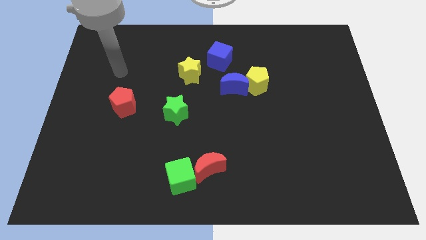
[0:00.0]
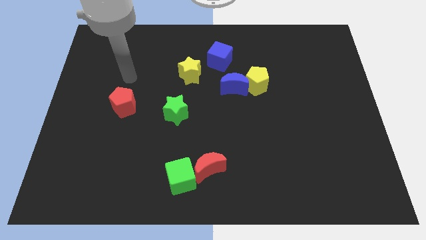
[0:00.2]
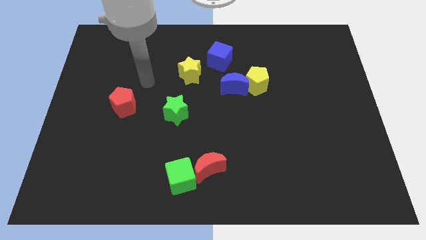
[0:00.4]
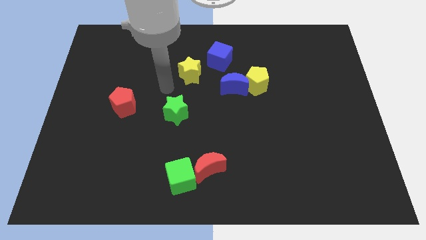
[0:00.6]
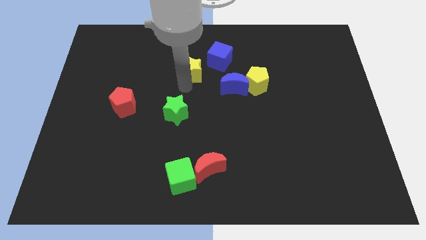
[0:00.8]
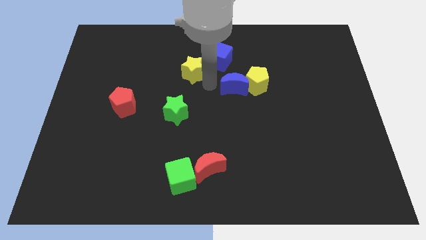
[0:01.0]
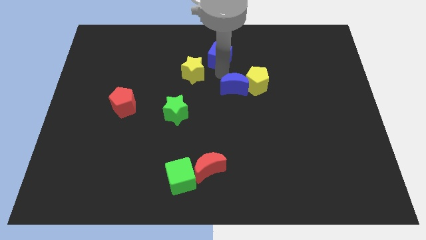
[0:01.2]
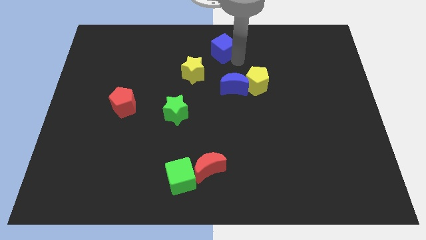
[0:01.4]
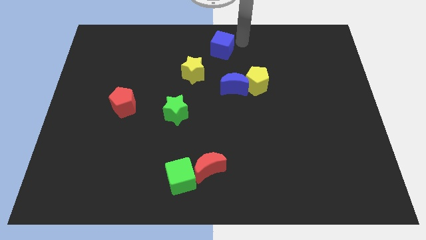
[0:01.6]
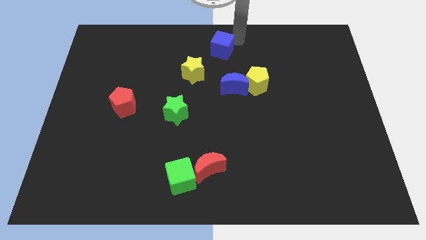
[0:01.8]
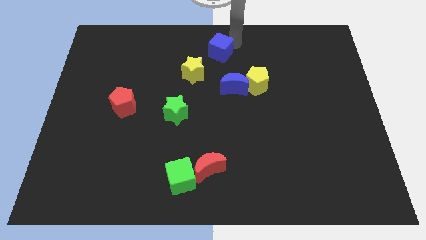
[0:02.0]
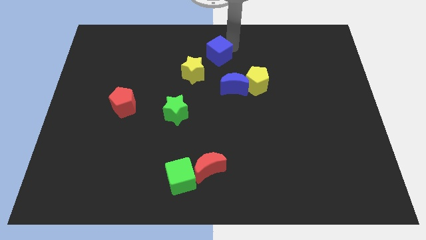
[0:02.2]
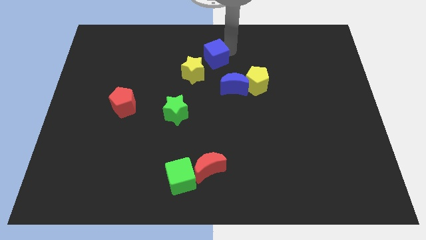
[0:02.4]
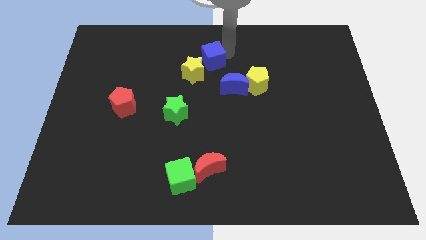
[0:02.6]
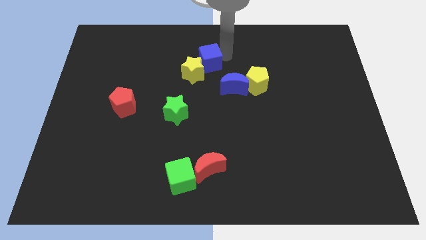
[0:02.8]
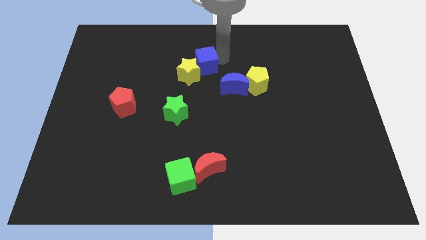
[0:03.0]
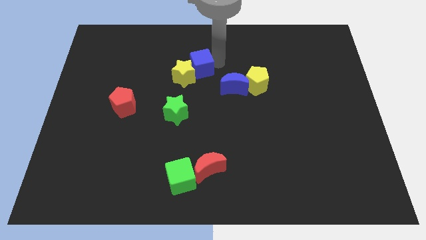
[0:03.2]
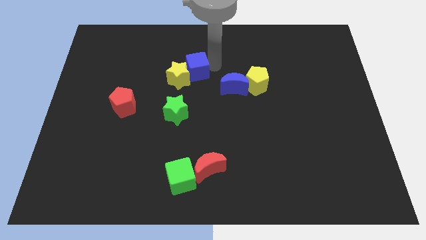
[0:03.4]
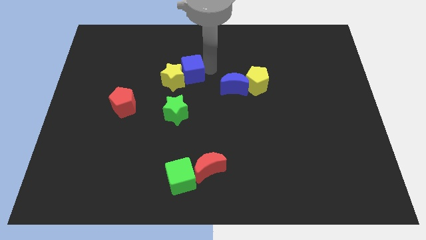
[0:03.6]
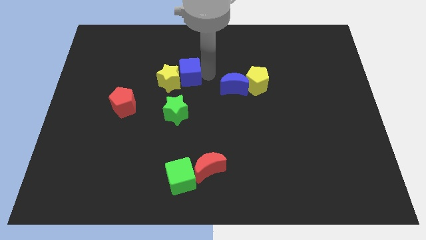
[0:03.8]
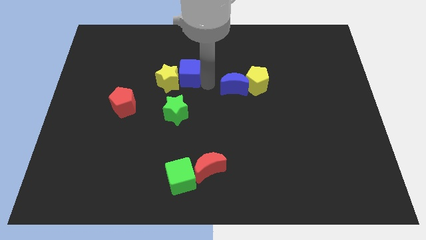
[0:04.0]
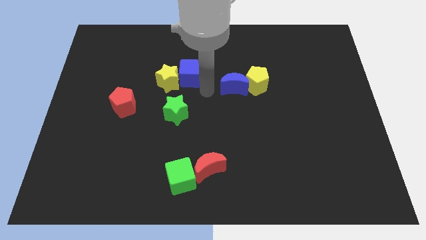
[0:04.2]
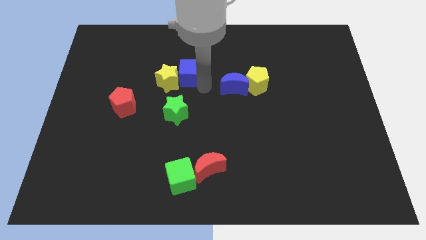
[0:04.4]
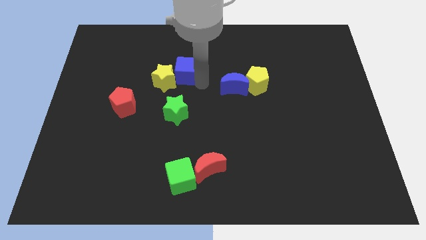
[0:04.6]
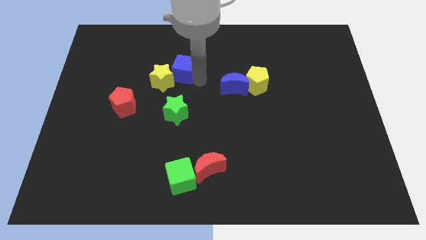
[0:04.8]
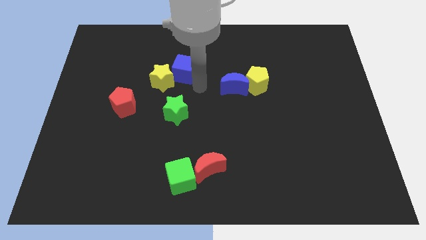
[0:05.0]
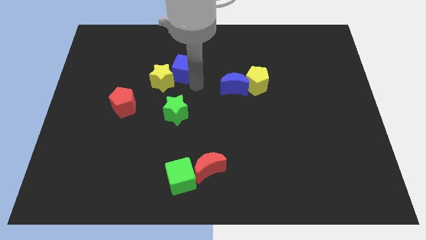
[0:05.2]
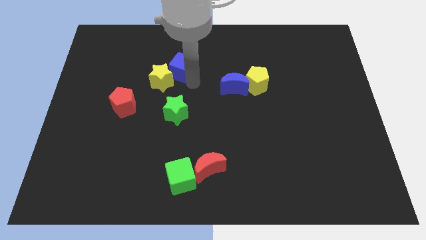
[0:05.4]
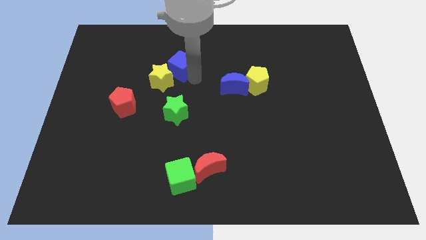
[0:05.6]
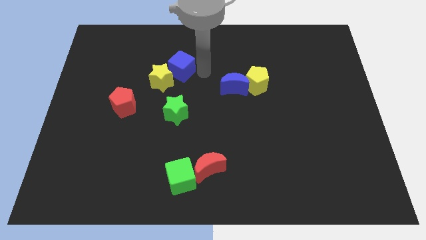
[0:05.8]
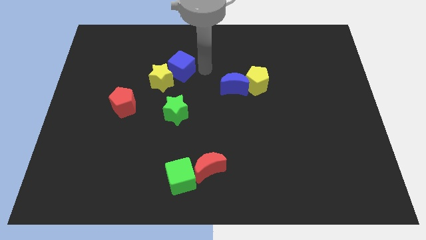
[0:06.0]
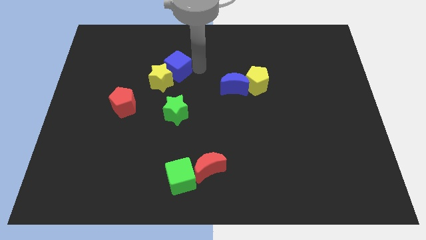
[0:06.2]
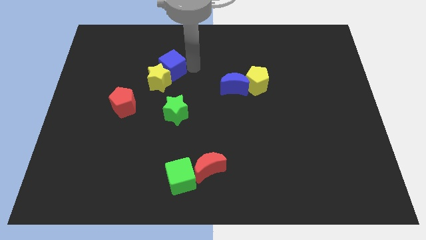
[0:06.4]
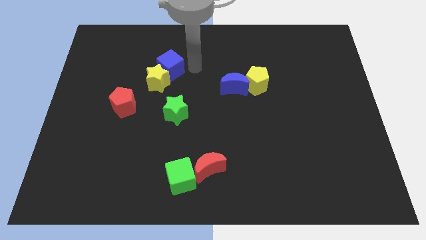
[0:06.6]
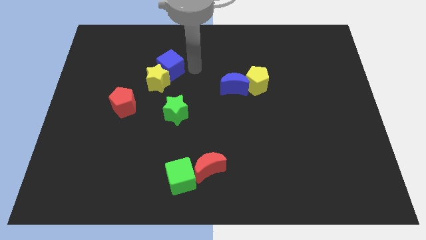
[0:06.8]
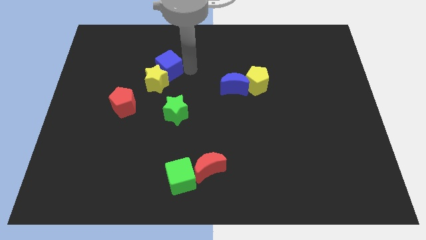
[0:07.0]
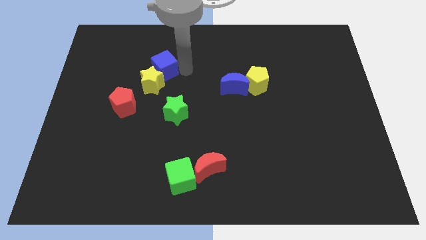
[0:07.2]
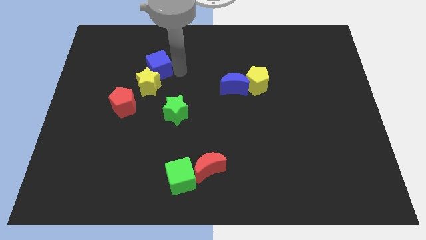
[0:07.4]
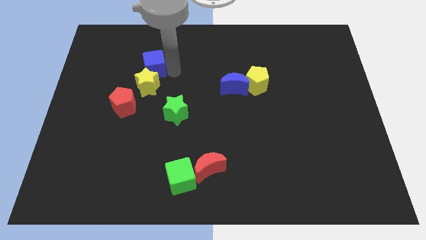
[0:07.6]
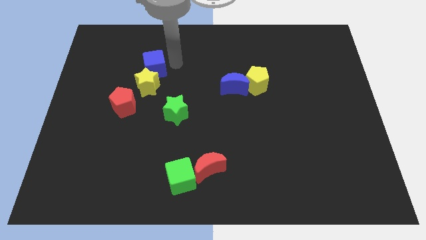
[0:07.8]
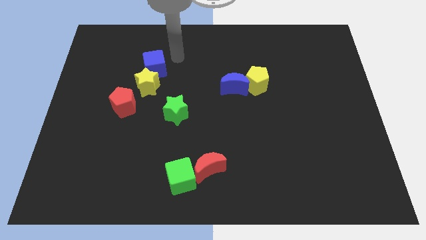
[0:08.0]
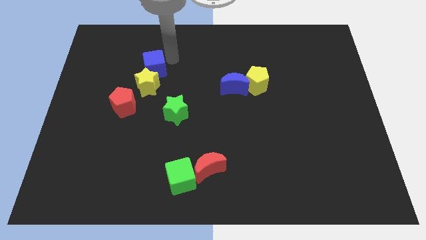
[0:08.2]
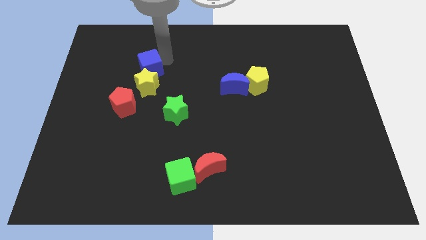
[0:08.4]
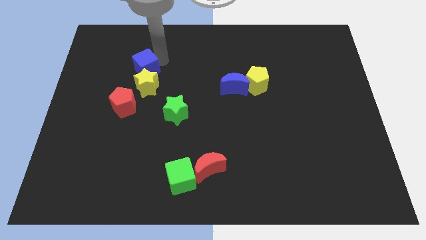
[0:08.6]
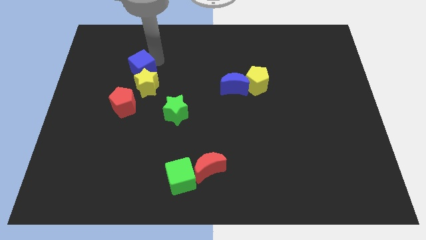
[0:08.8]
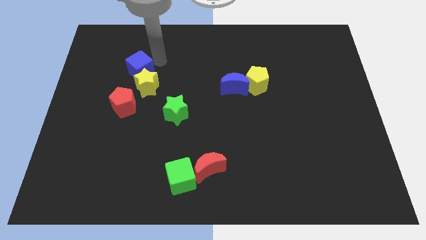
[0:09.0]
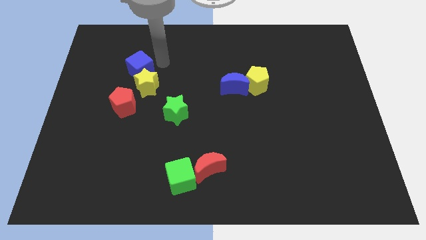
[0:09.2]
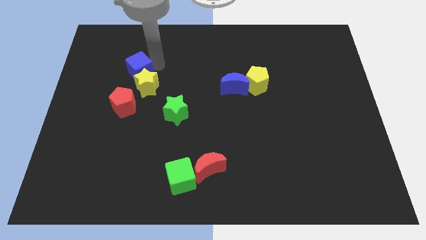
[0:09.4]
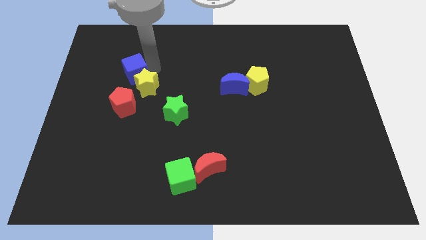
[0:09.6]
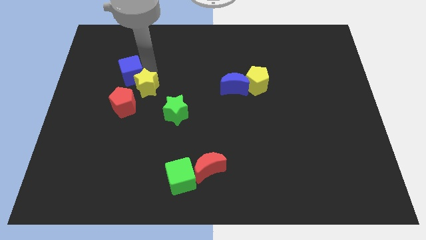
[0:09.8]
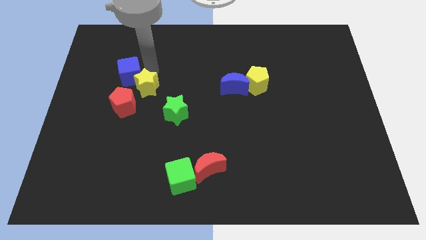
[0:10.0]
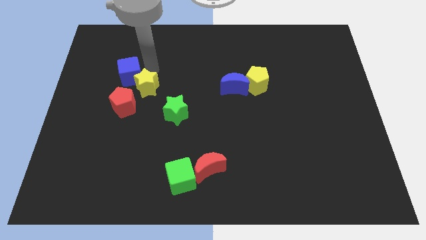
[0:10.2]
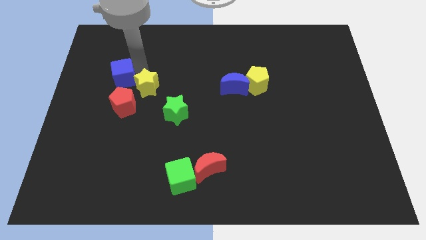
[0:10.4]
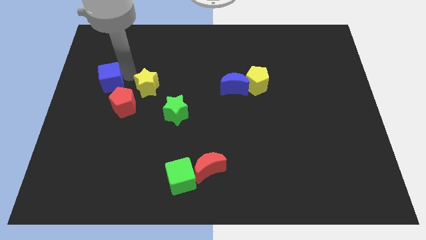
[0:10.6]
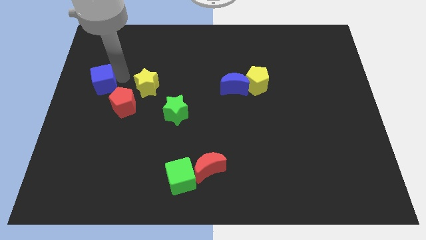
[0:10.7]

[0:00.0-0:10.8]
put the blue cube to the center left

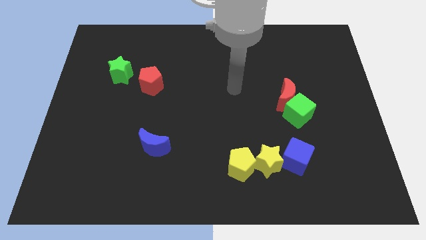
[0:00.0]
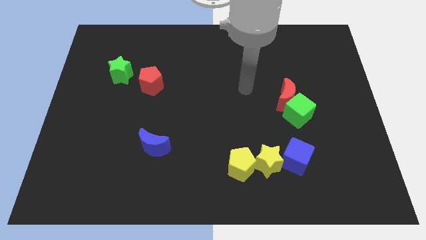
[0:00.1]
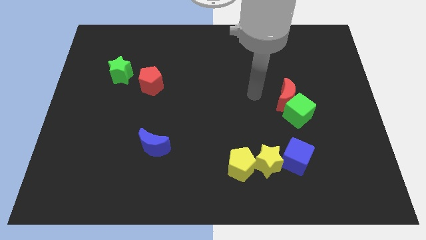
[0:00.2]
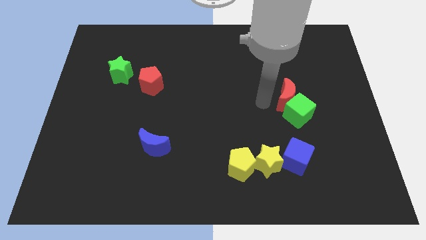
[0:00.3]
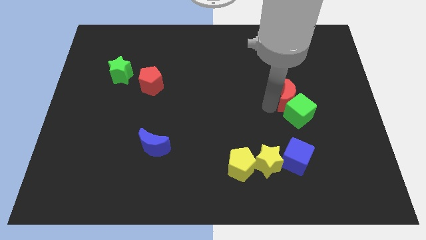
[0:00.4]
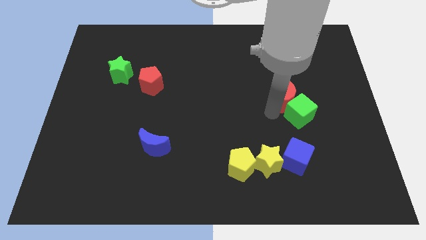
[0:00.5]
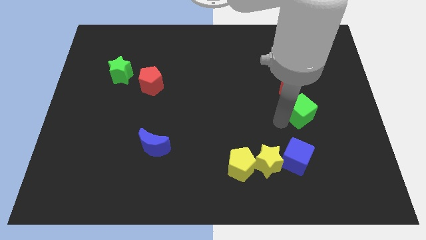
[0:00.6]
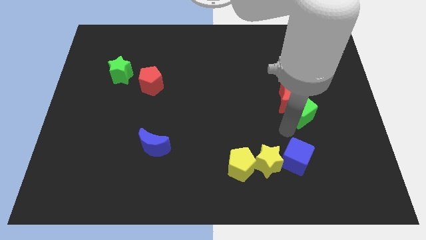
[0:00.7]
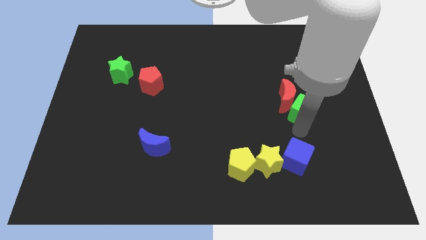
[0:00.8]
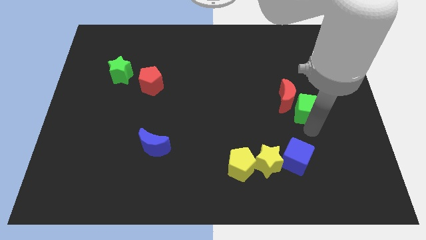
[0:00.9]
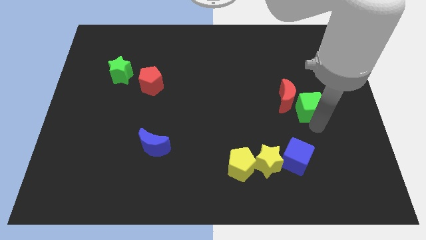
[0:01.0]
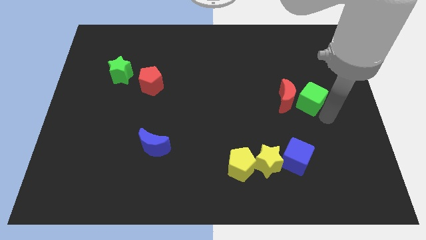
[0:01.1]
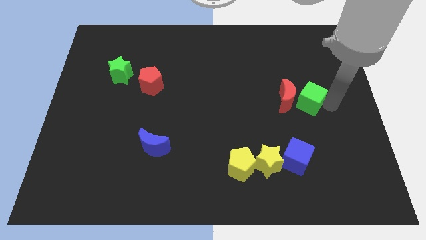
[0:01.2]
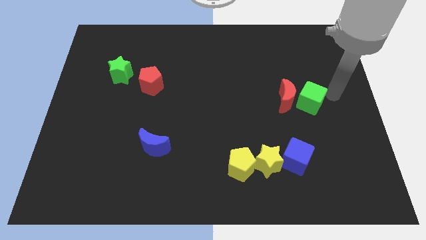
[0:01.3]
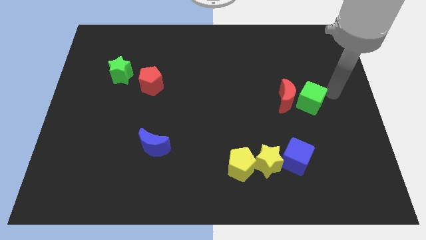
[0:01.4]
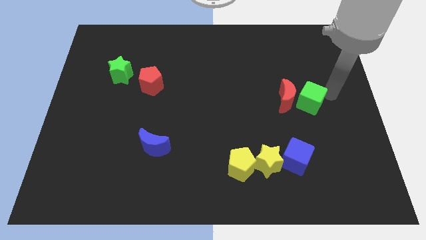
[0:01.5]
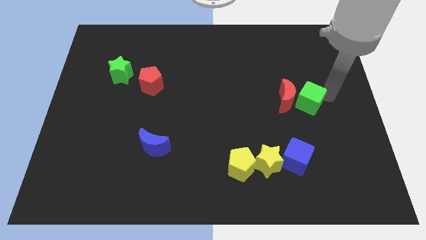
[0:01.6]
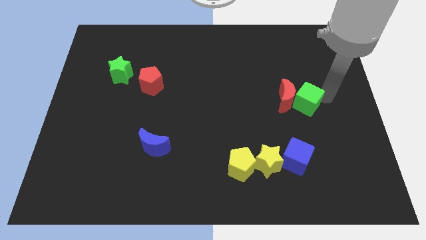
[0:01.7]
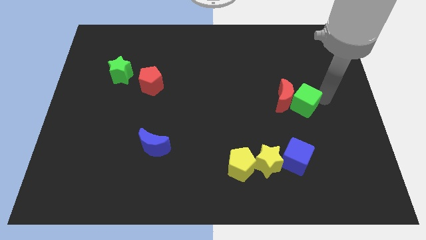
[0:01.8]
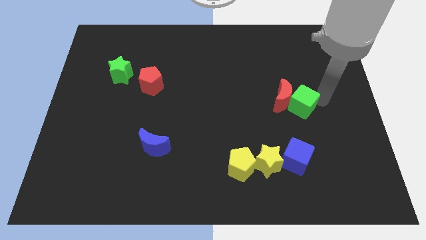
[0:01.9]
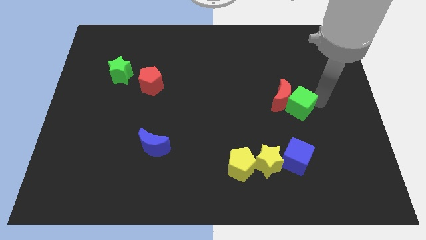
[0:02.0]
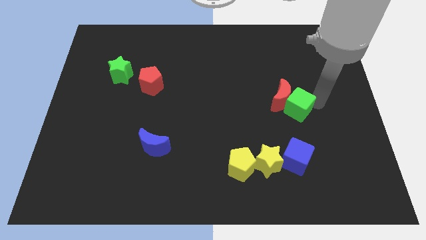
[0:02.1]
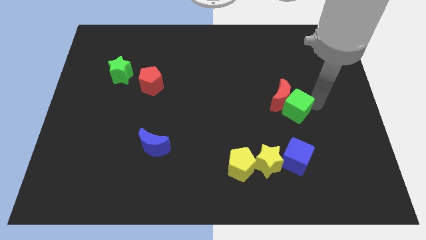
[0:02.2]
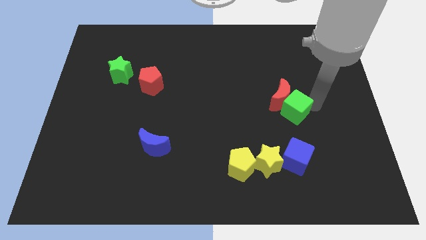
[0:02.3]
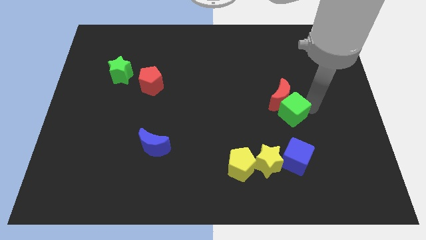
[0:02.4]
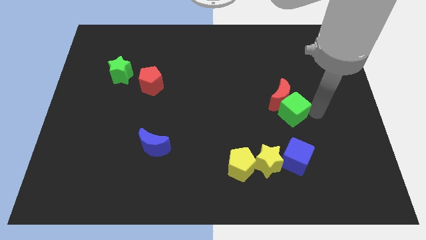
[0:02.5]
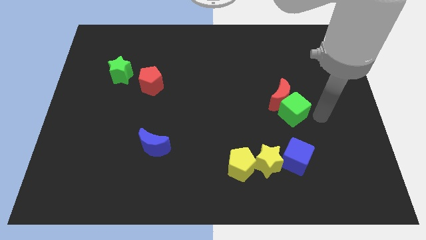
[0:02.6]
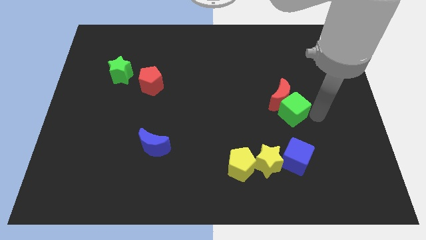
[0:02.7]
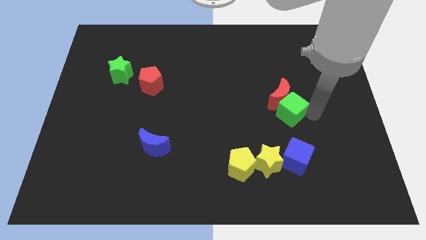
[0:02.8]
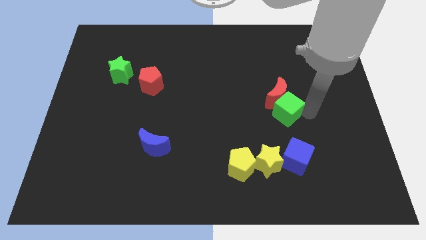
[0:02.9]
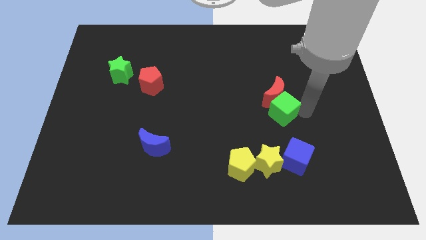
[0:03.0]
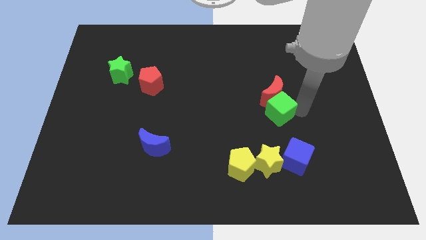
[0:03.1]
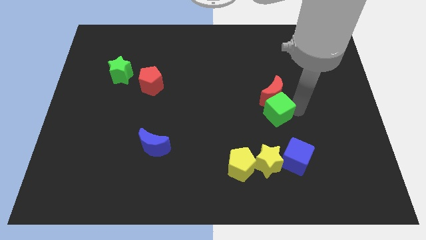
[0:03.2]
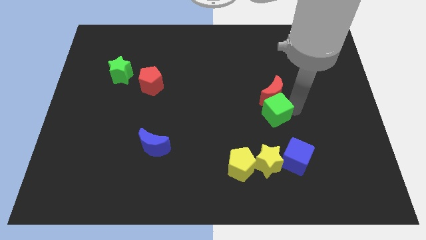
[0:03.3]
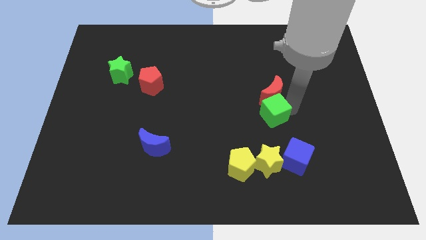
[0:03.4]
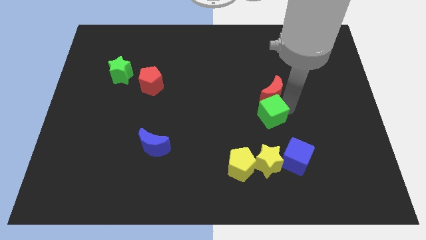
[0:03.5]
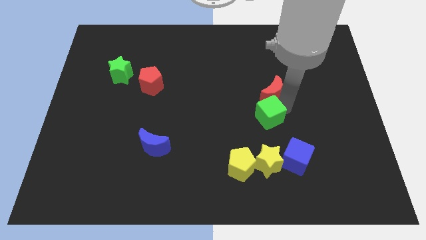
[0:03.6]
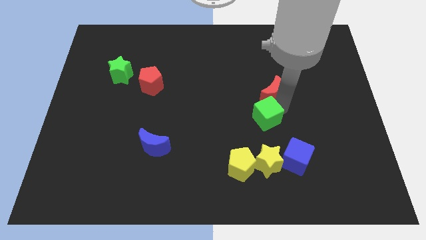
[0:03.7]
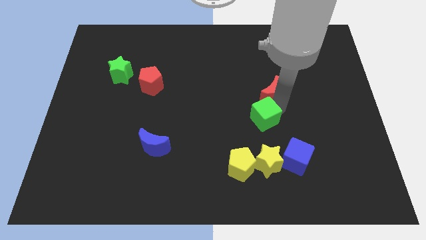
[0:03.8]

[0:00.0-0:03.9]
put the green cube to the middle of the board
